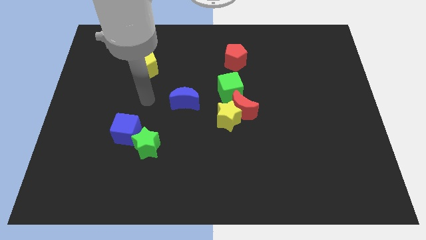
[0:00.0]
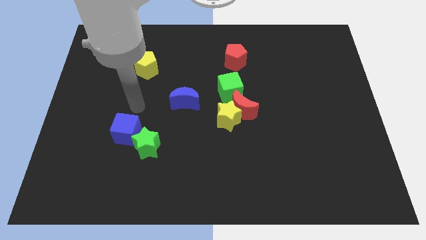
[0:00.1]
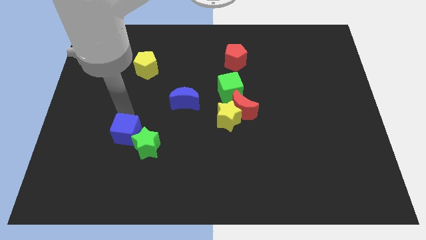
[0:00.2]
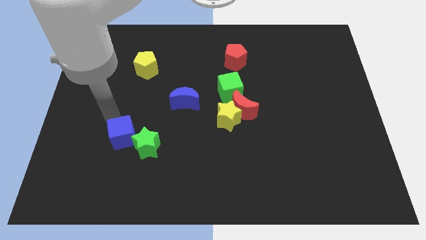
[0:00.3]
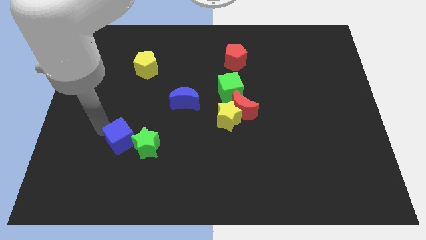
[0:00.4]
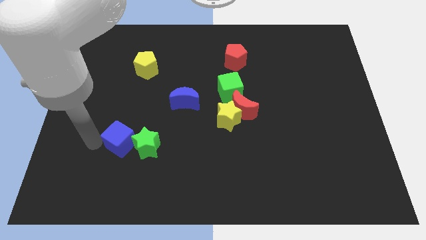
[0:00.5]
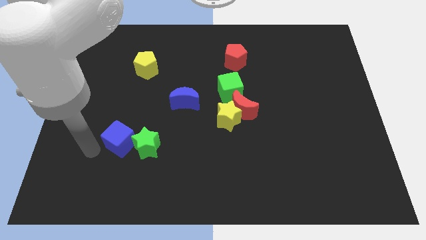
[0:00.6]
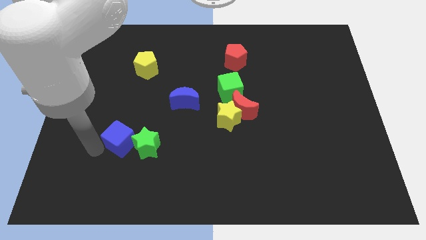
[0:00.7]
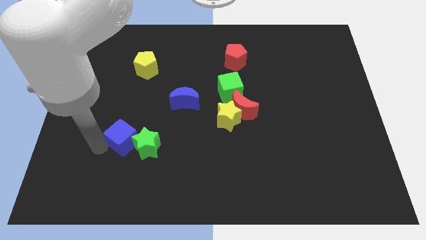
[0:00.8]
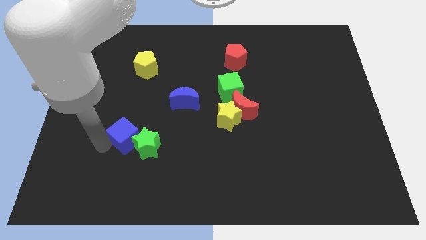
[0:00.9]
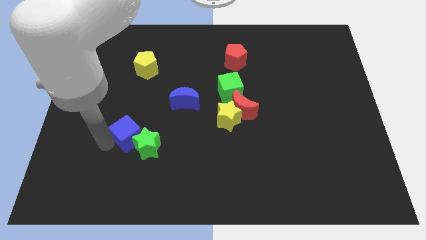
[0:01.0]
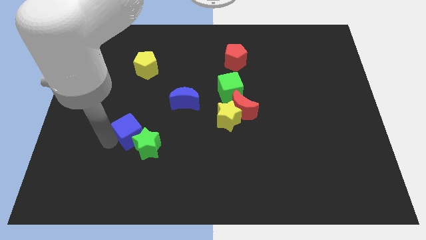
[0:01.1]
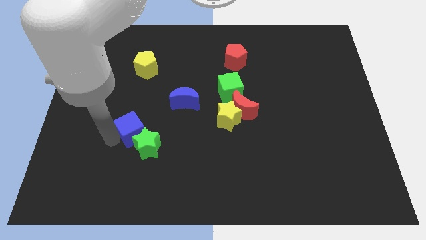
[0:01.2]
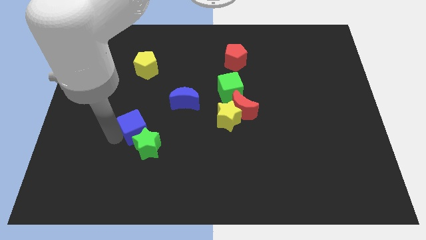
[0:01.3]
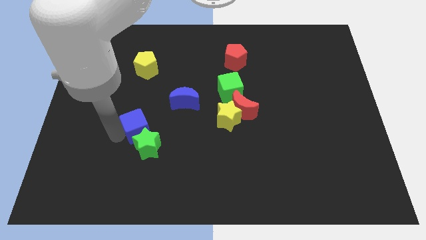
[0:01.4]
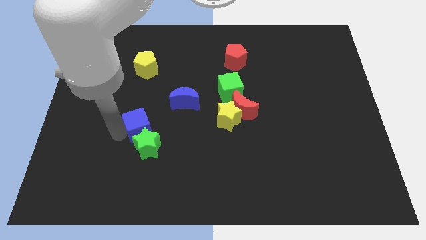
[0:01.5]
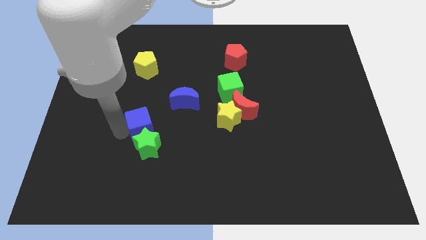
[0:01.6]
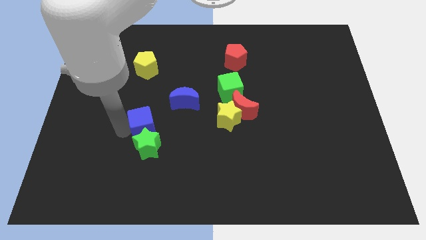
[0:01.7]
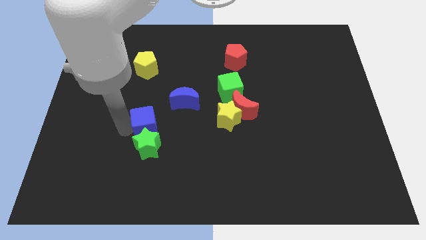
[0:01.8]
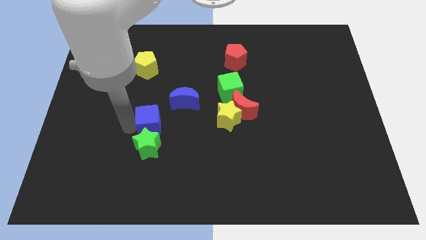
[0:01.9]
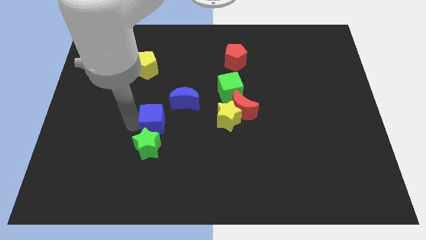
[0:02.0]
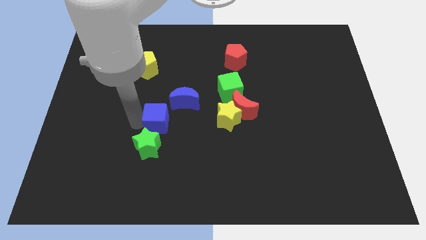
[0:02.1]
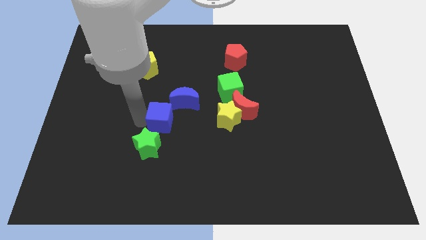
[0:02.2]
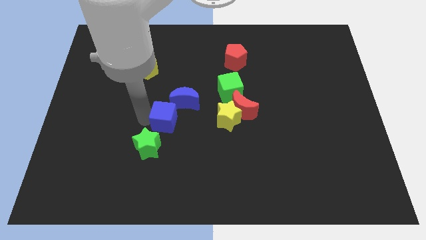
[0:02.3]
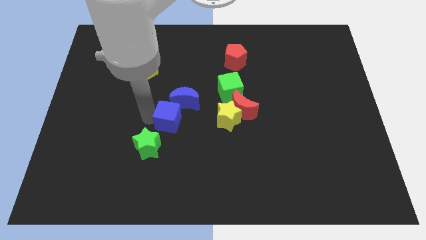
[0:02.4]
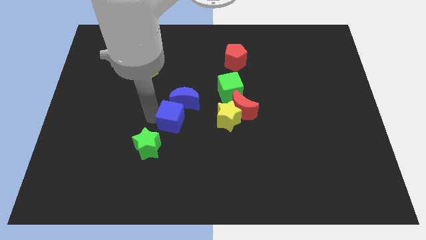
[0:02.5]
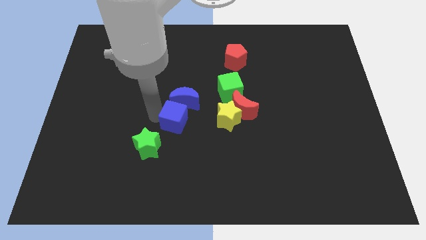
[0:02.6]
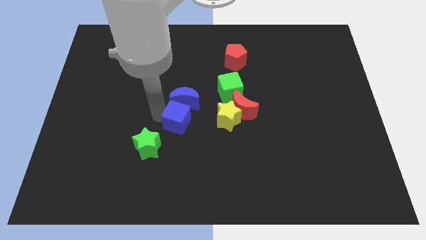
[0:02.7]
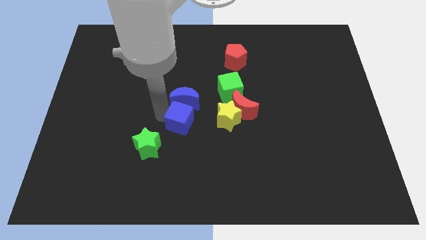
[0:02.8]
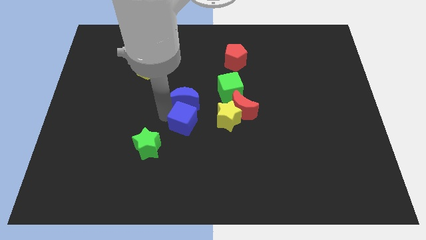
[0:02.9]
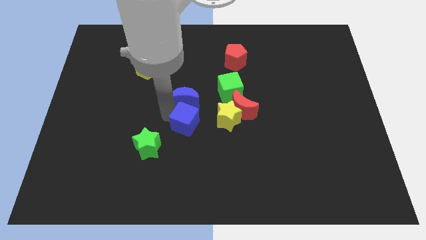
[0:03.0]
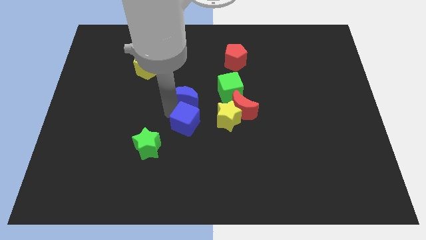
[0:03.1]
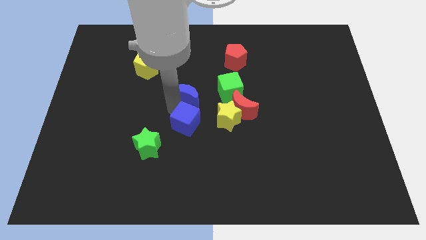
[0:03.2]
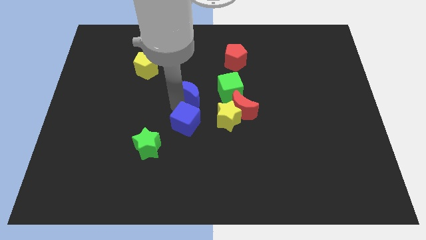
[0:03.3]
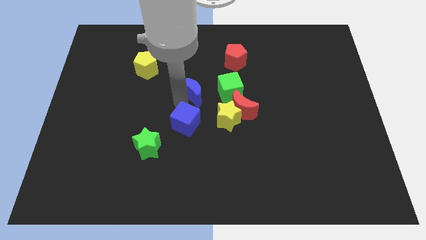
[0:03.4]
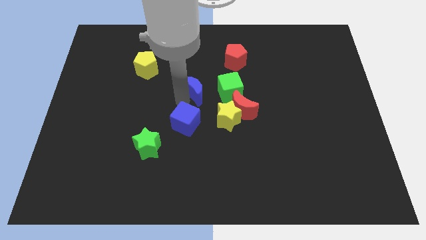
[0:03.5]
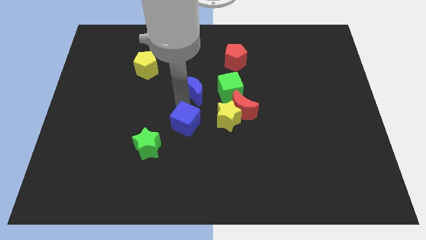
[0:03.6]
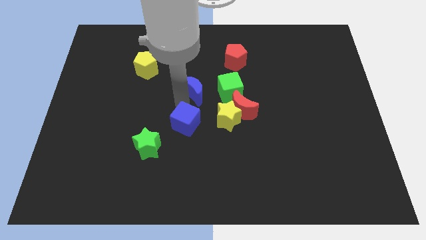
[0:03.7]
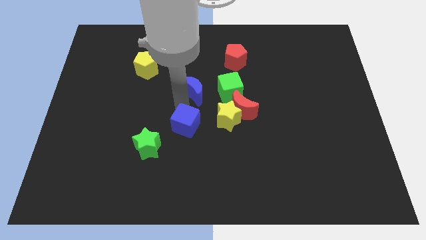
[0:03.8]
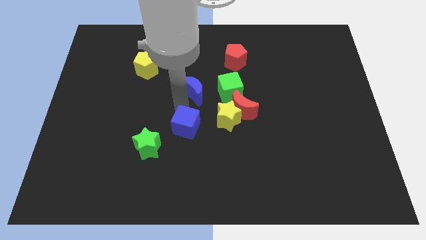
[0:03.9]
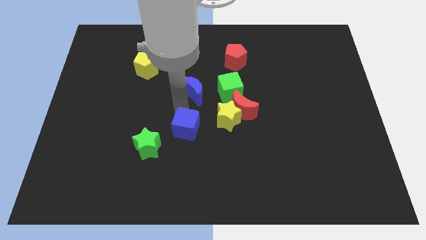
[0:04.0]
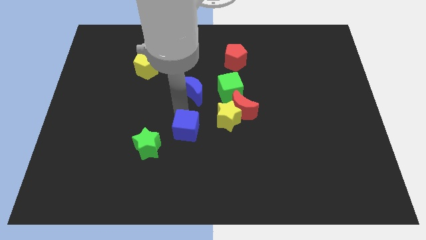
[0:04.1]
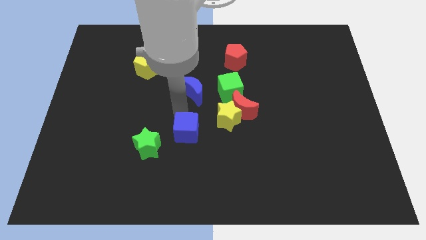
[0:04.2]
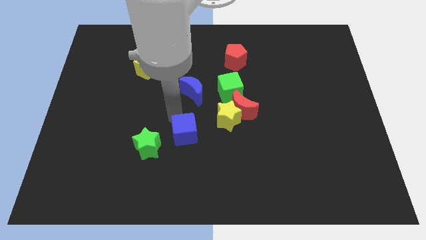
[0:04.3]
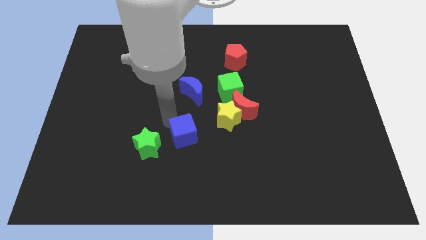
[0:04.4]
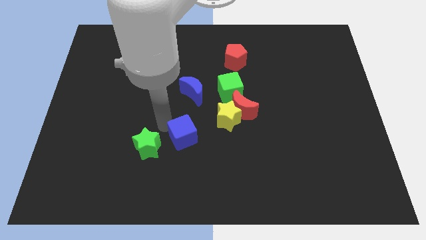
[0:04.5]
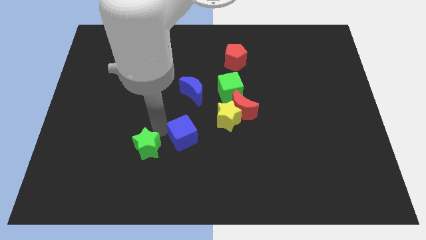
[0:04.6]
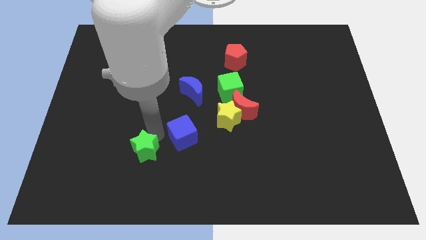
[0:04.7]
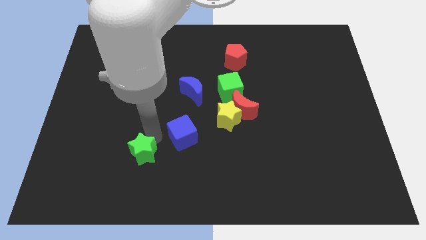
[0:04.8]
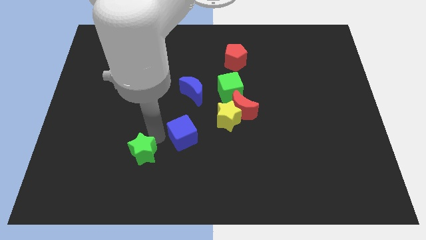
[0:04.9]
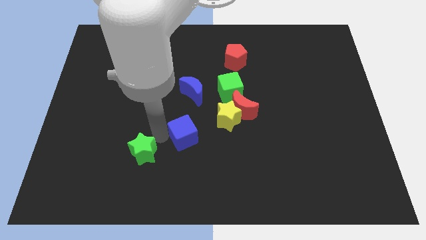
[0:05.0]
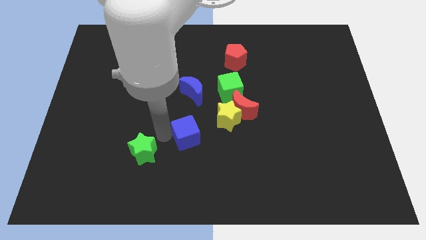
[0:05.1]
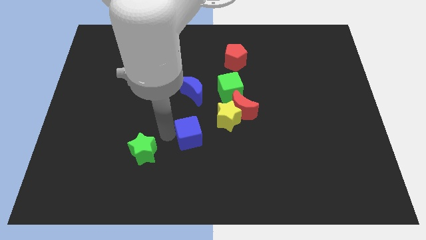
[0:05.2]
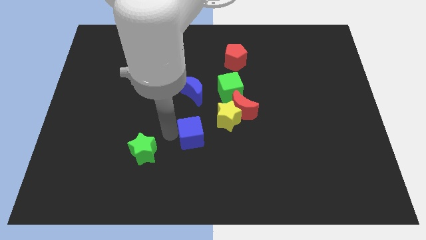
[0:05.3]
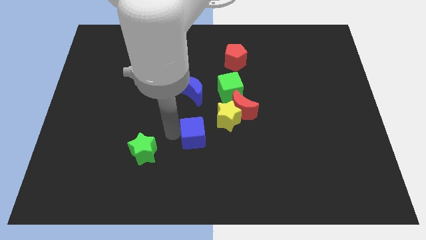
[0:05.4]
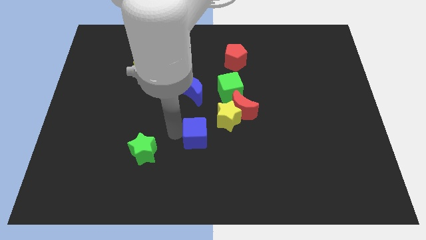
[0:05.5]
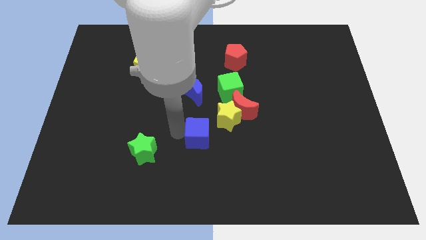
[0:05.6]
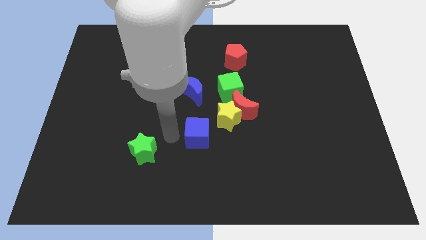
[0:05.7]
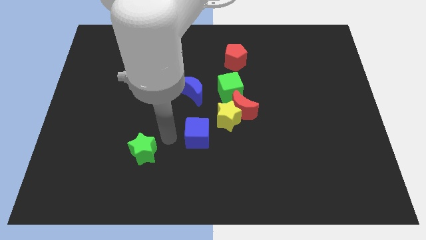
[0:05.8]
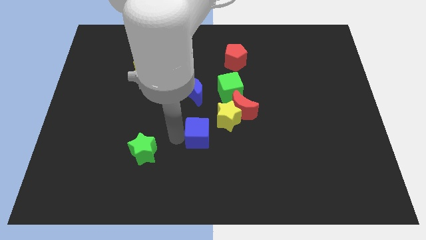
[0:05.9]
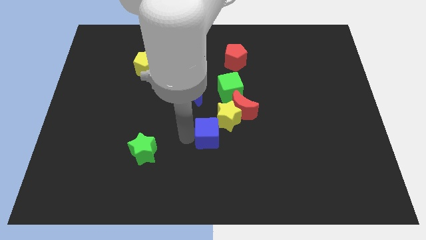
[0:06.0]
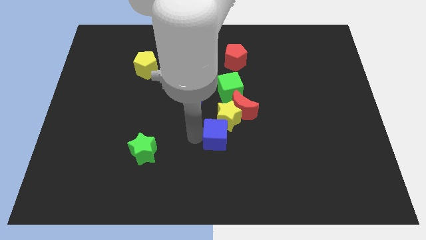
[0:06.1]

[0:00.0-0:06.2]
slide the blue cube right

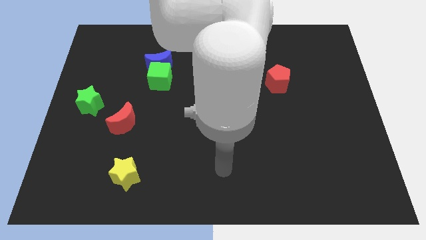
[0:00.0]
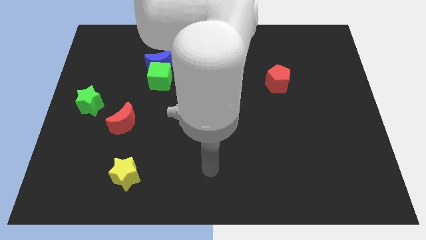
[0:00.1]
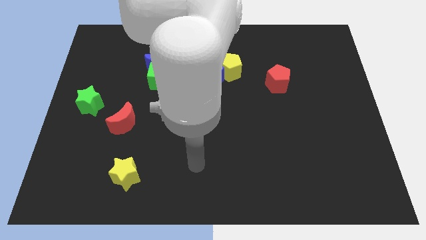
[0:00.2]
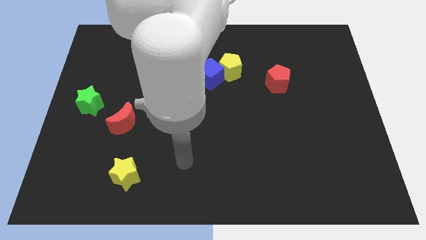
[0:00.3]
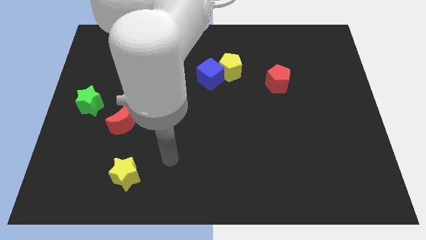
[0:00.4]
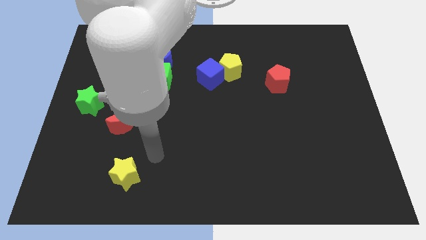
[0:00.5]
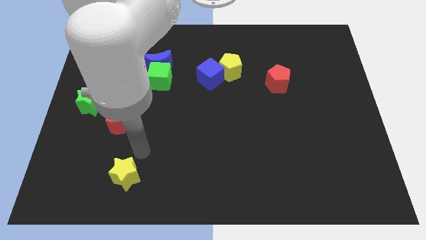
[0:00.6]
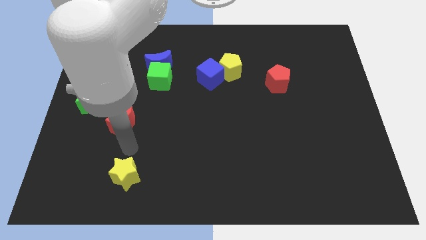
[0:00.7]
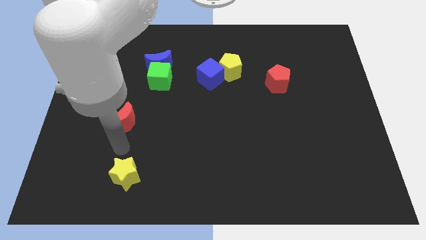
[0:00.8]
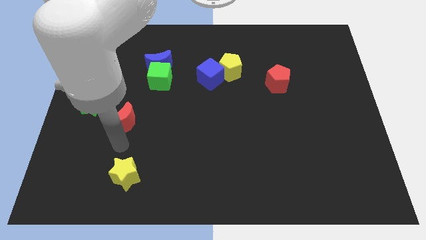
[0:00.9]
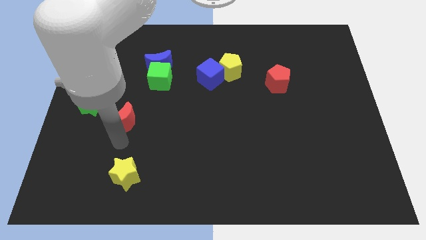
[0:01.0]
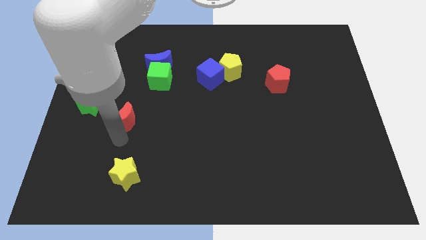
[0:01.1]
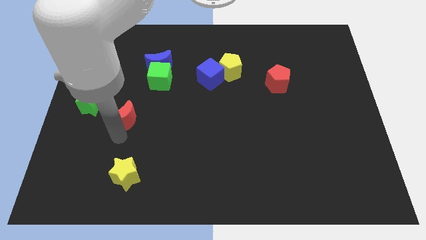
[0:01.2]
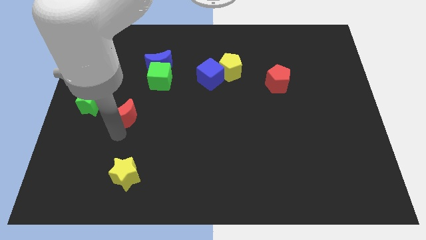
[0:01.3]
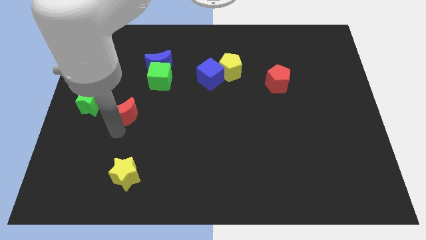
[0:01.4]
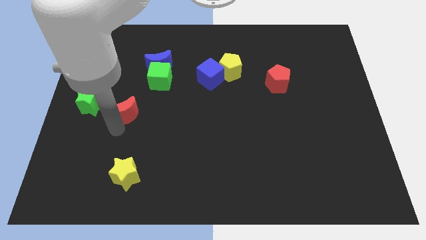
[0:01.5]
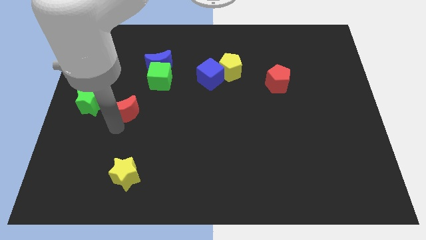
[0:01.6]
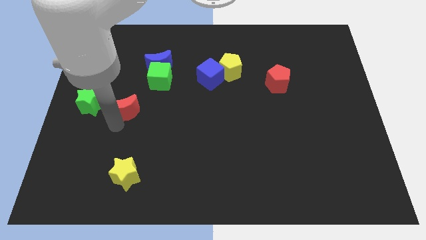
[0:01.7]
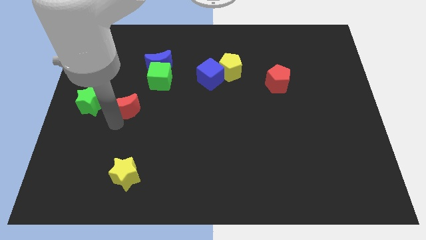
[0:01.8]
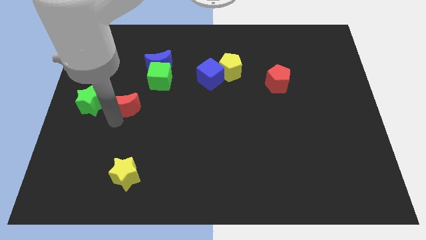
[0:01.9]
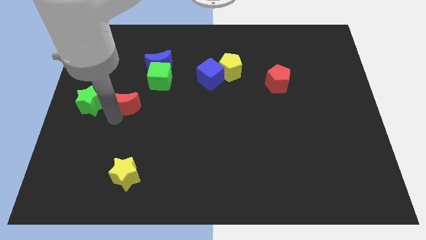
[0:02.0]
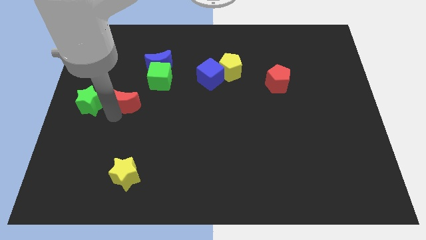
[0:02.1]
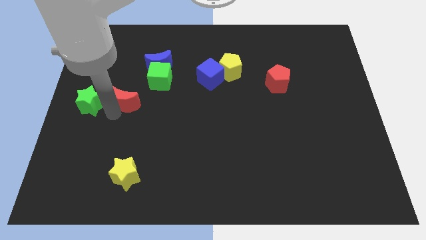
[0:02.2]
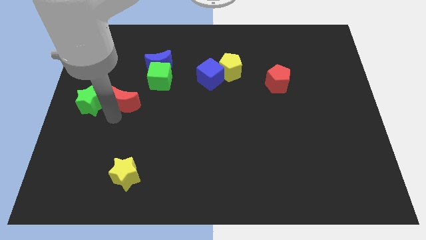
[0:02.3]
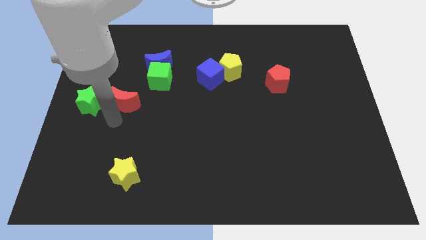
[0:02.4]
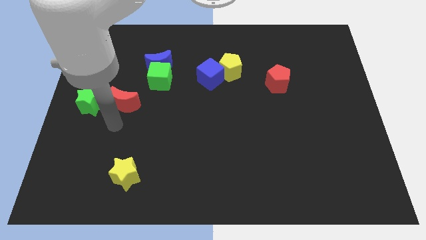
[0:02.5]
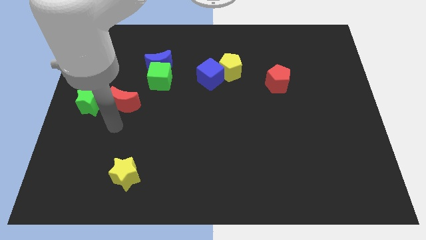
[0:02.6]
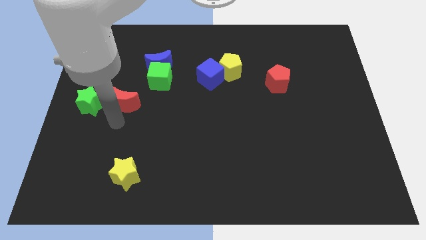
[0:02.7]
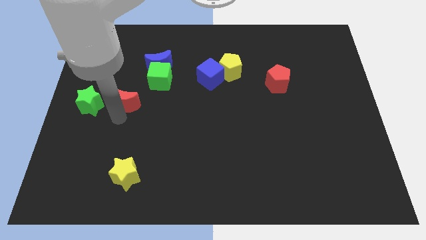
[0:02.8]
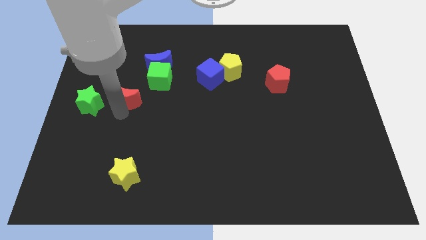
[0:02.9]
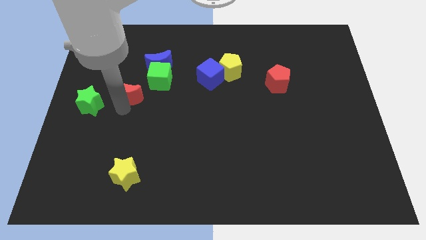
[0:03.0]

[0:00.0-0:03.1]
slightly slide the red moon up
